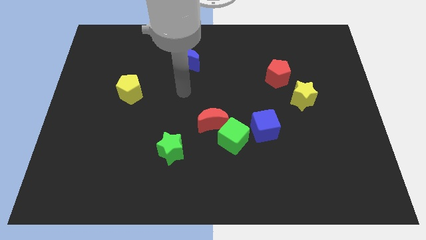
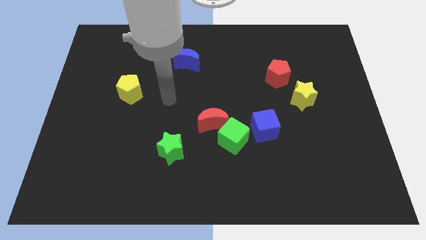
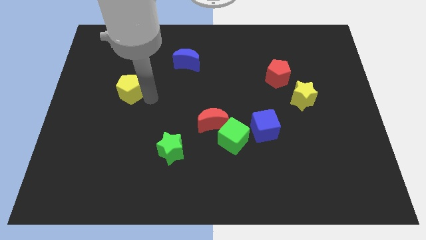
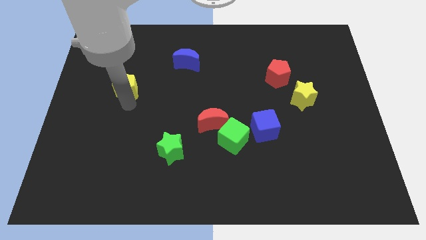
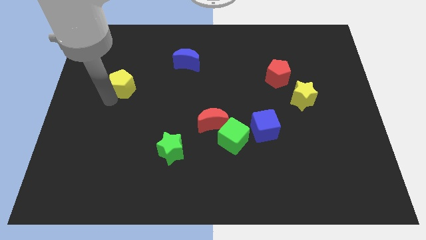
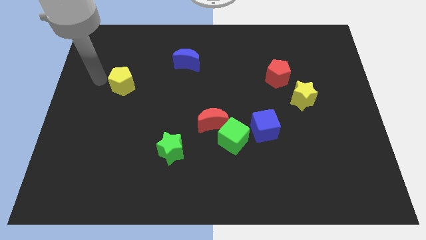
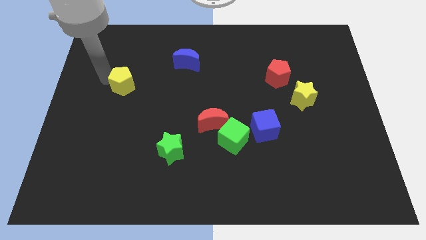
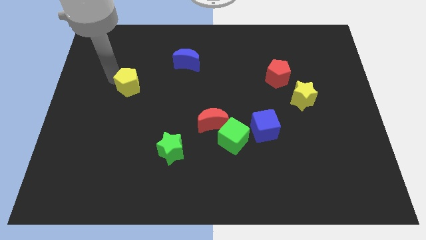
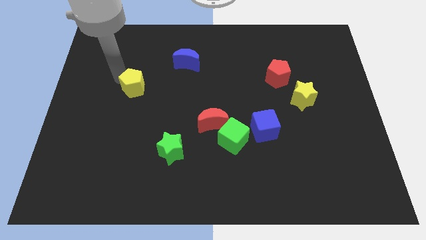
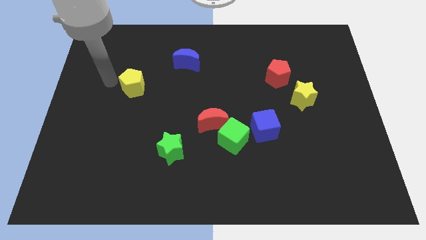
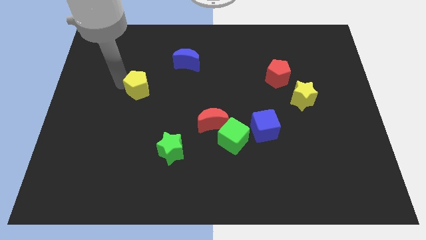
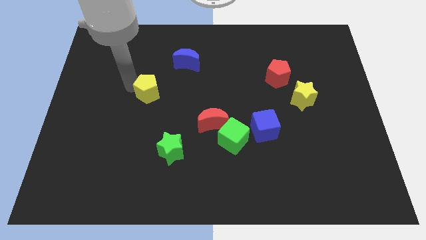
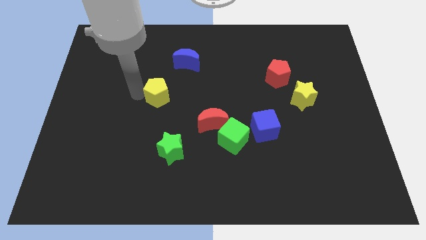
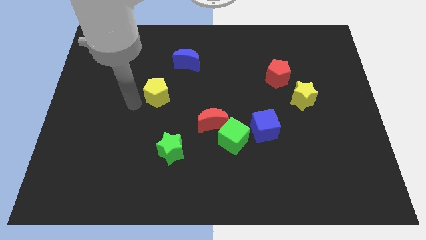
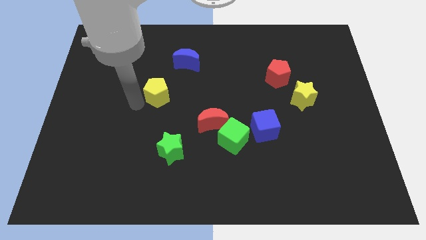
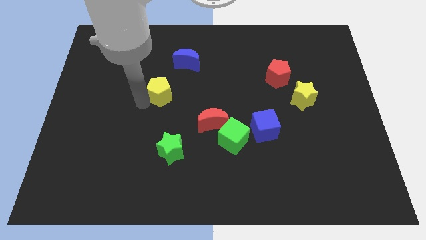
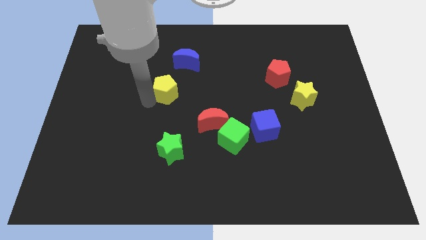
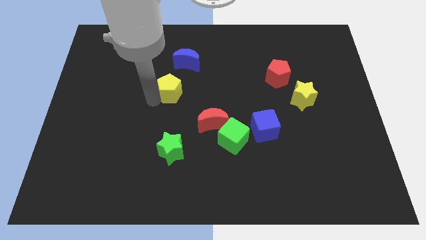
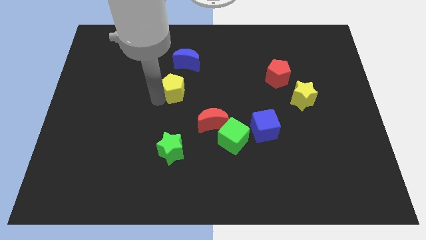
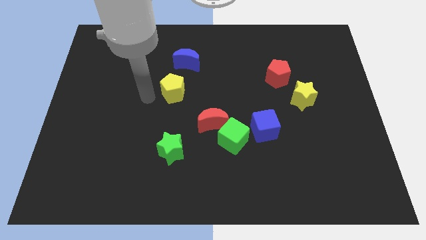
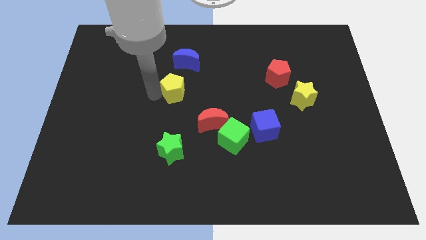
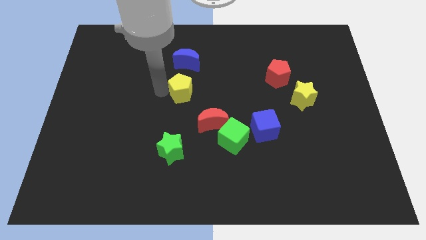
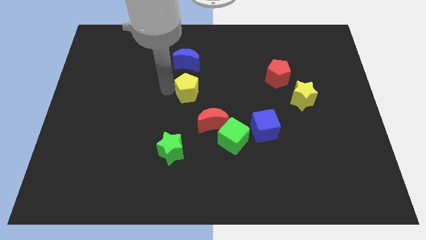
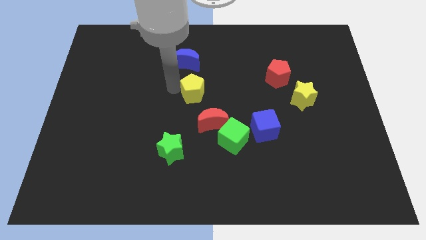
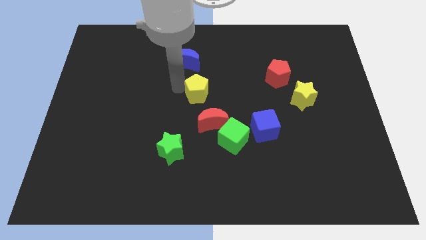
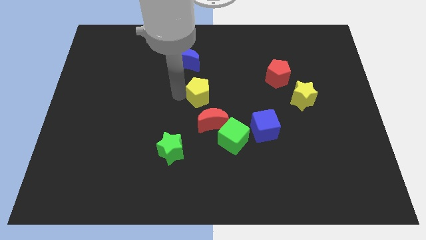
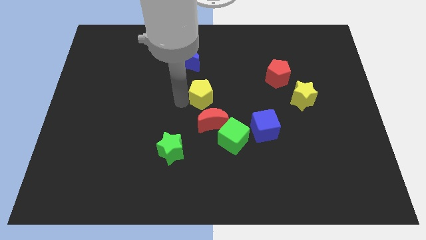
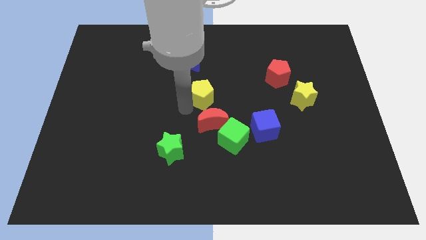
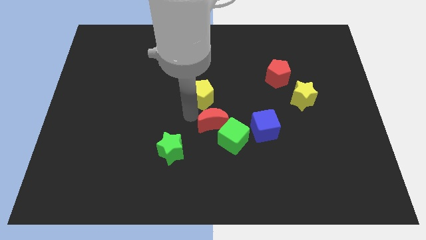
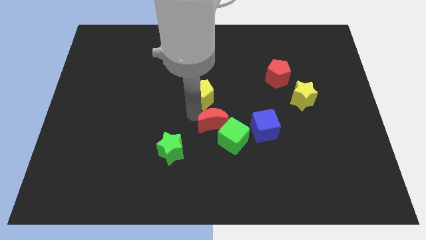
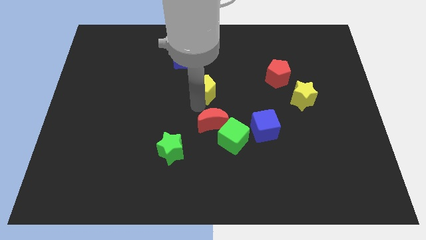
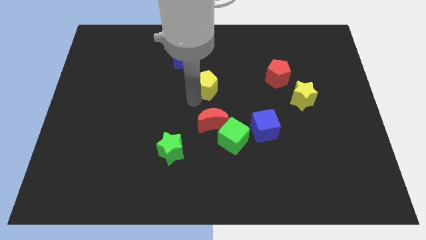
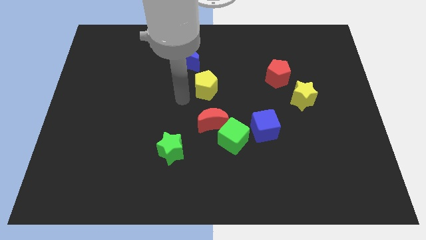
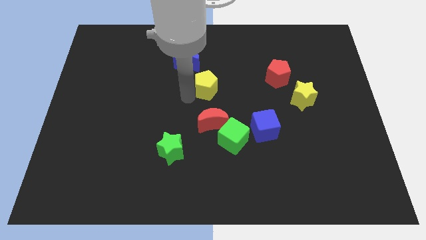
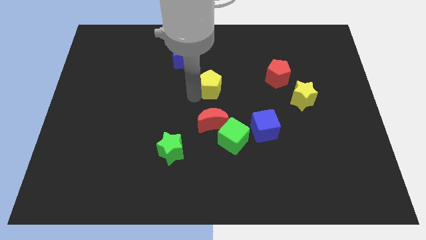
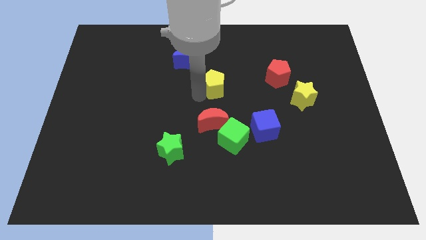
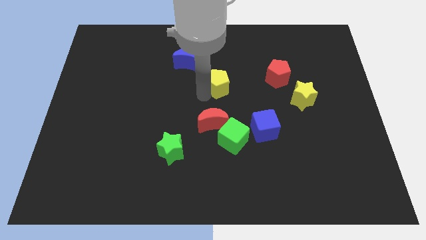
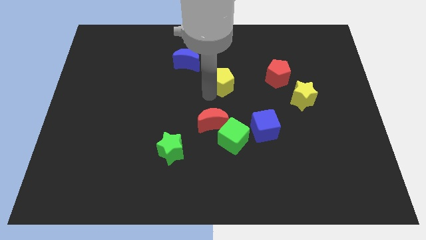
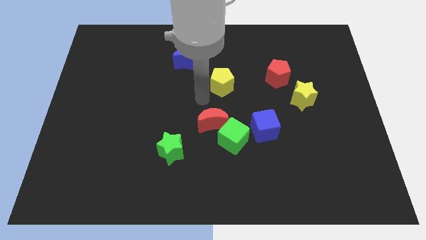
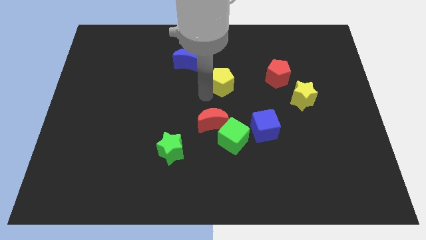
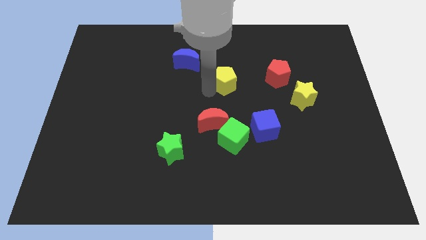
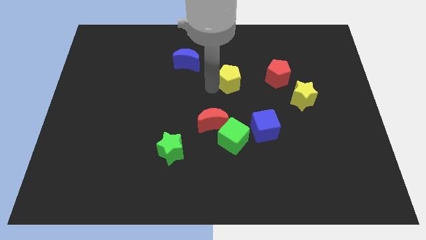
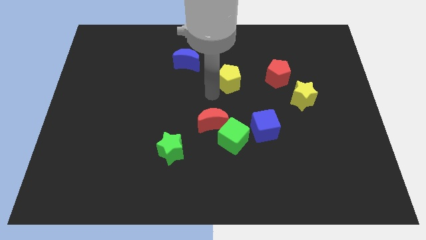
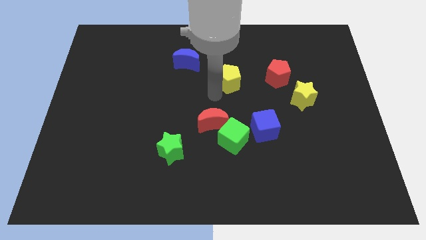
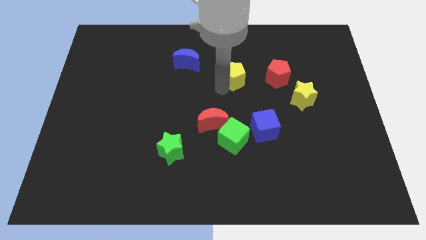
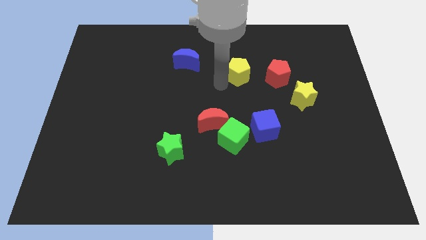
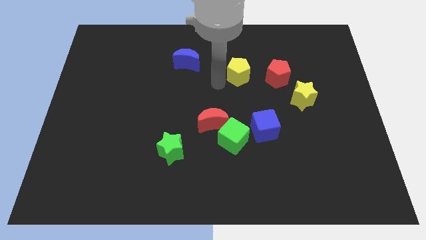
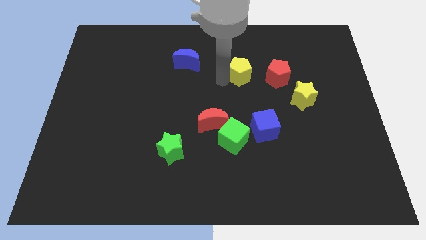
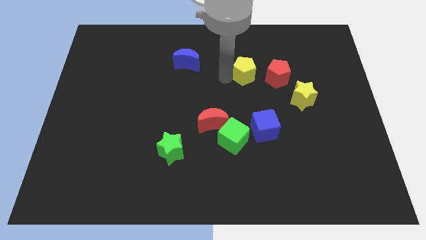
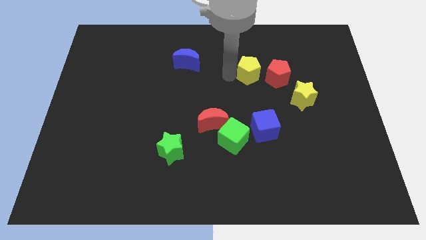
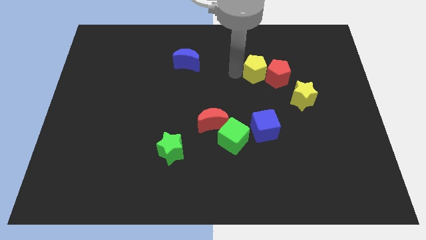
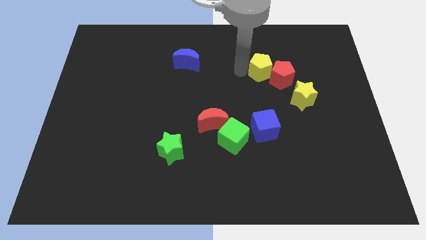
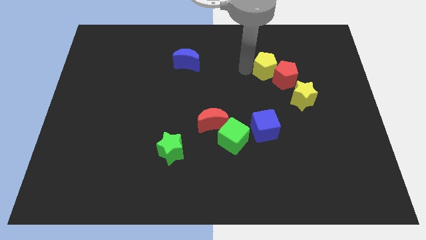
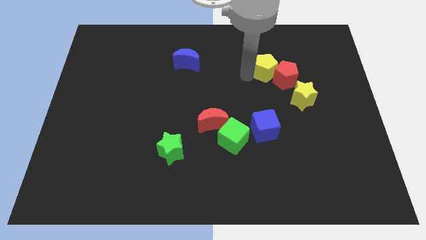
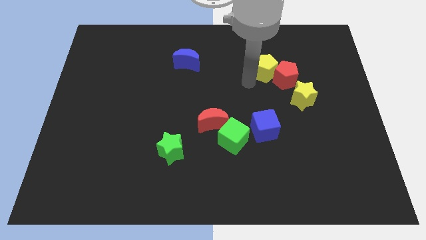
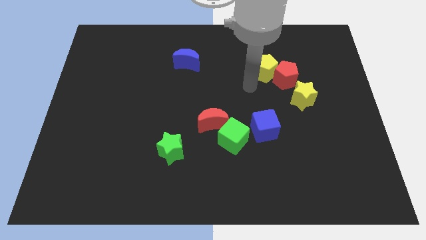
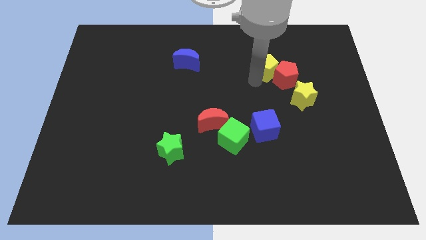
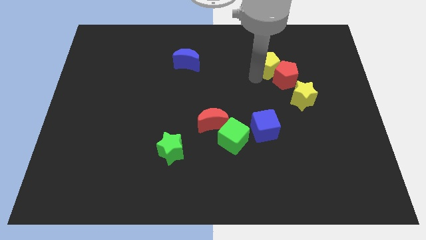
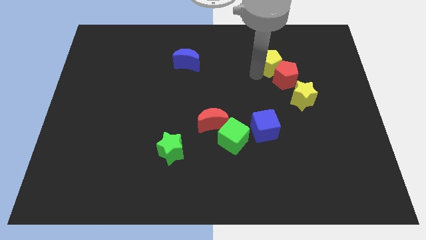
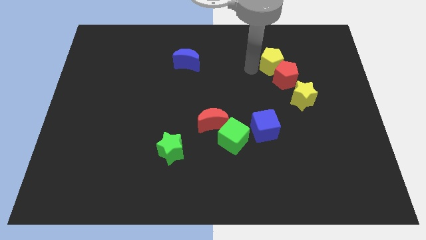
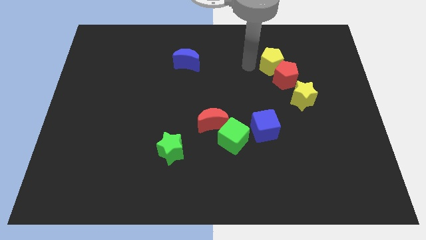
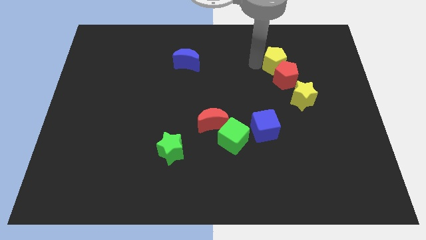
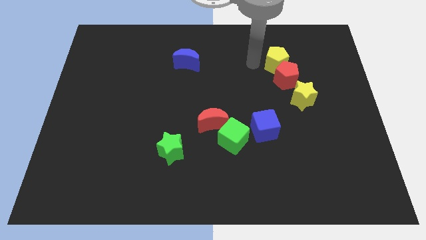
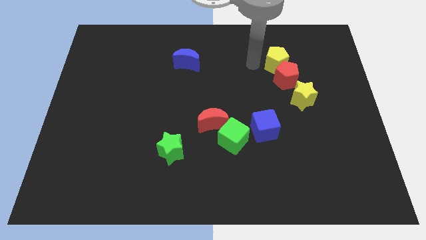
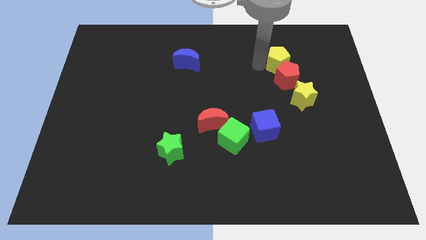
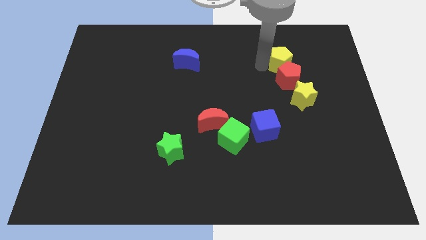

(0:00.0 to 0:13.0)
push the yellow pentagon to the top right of the red pentagon
